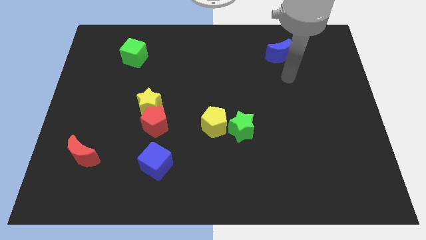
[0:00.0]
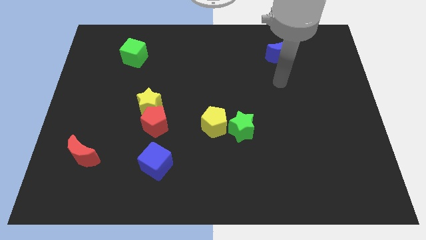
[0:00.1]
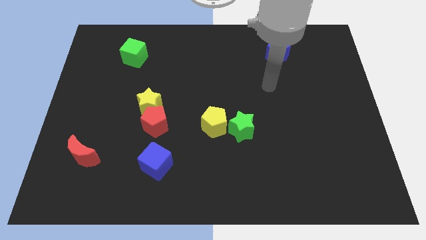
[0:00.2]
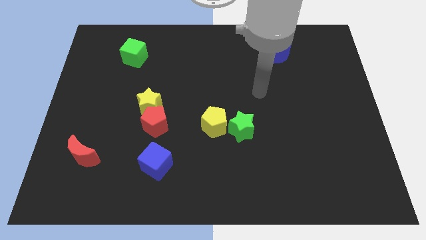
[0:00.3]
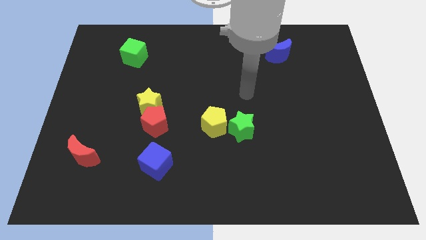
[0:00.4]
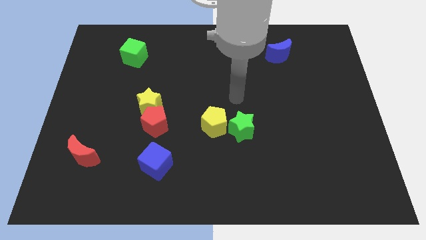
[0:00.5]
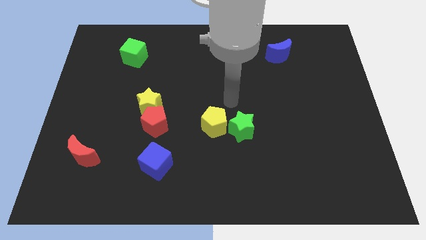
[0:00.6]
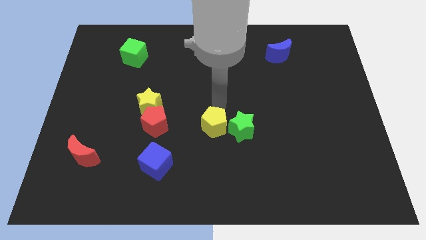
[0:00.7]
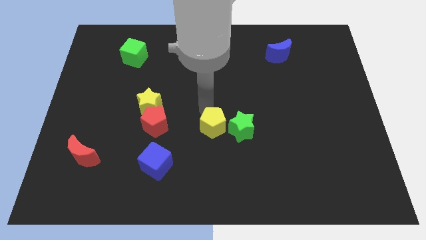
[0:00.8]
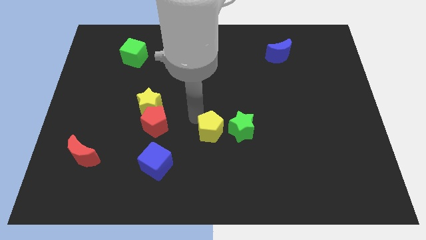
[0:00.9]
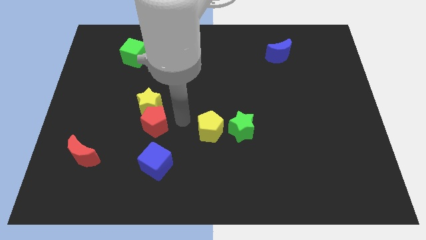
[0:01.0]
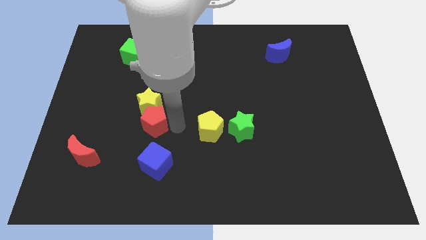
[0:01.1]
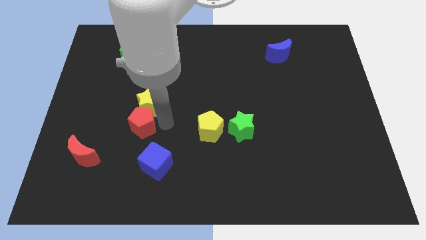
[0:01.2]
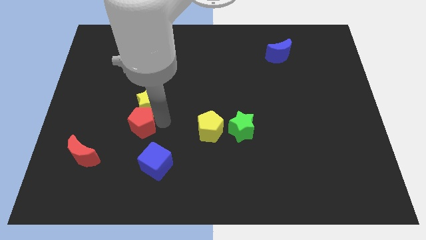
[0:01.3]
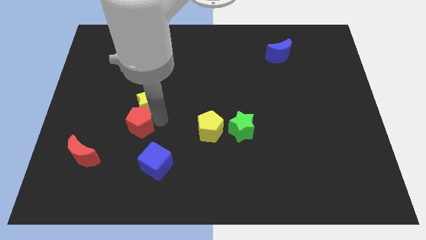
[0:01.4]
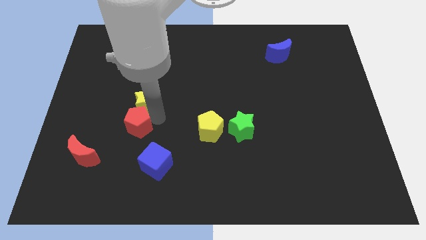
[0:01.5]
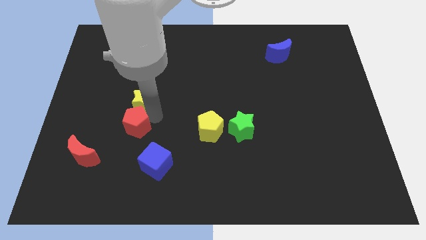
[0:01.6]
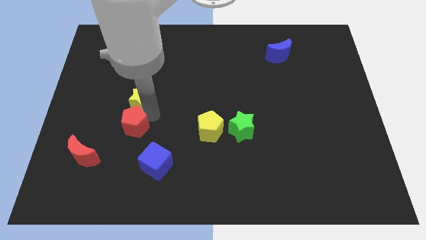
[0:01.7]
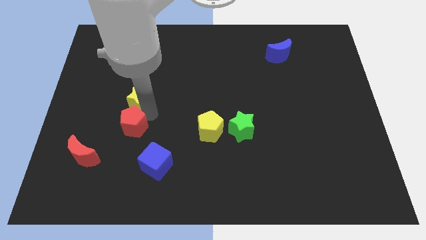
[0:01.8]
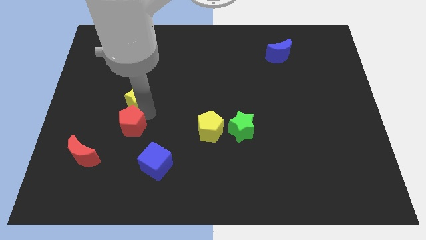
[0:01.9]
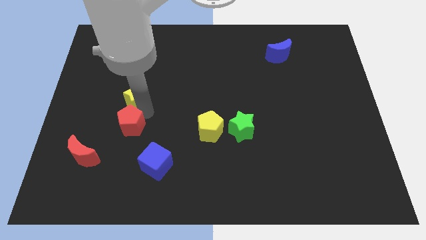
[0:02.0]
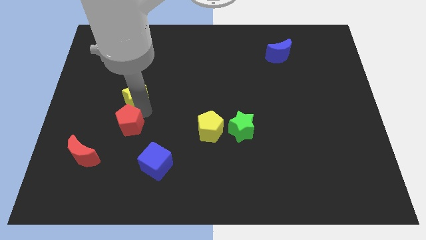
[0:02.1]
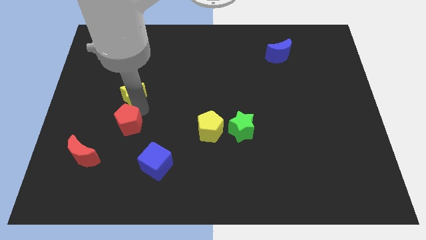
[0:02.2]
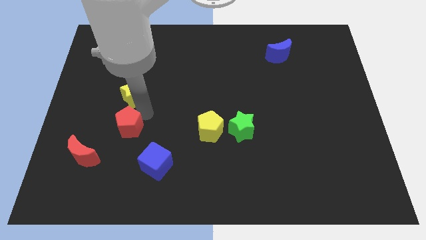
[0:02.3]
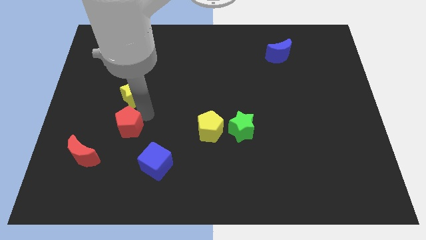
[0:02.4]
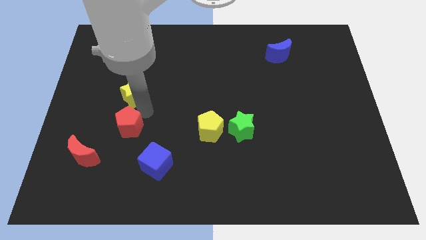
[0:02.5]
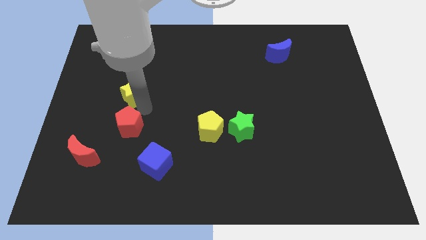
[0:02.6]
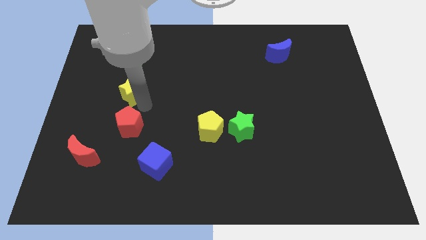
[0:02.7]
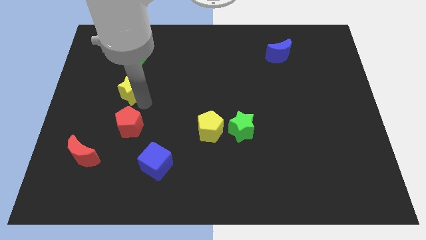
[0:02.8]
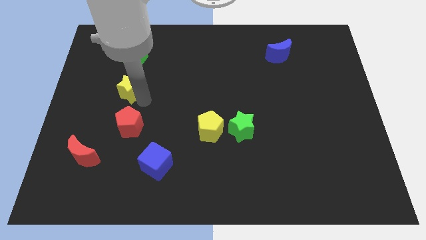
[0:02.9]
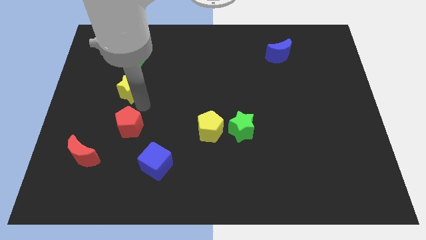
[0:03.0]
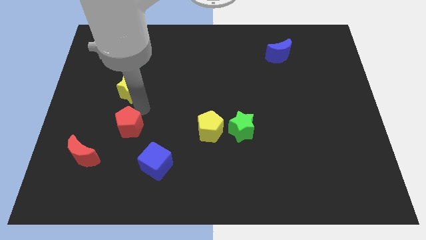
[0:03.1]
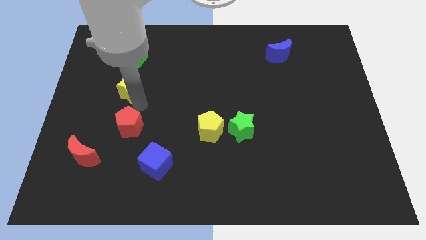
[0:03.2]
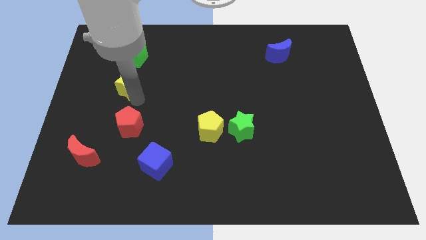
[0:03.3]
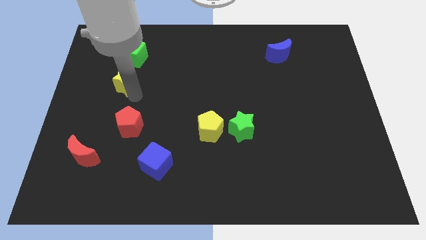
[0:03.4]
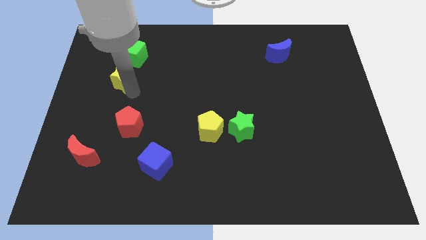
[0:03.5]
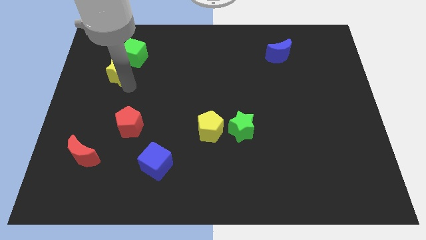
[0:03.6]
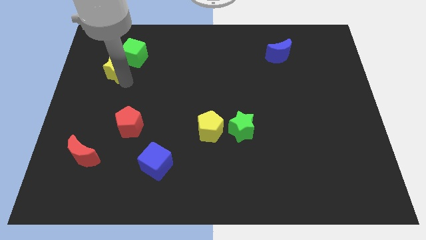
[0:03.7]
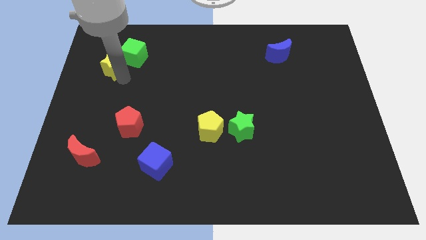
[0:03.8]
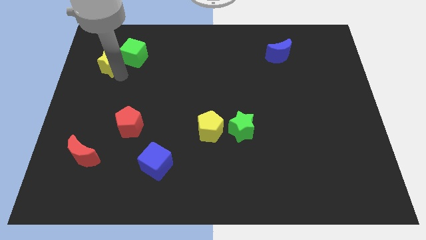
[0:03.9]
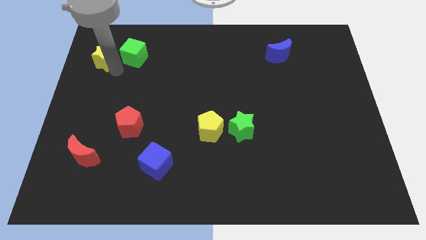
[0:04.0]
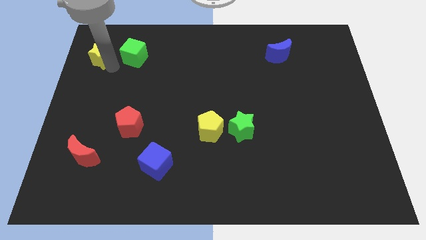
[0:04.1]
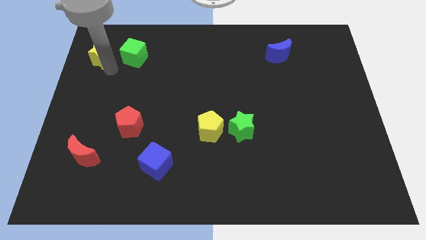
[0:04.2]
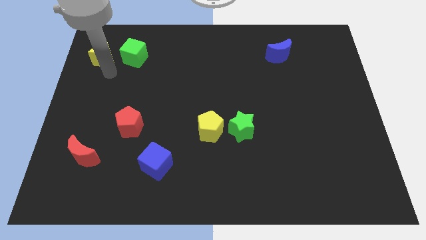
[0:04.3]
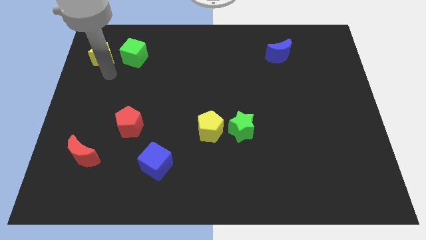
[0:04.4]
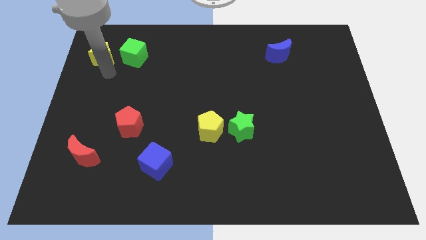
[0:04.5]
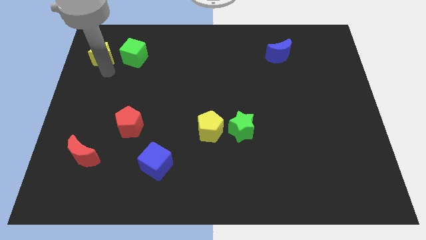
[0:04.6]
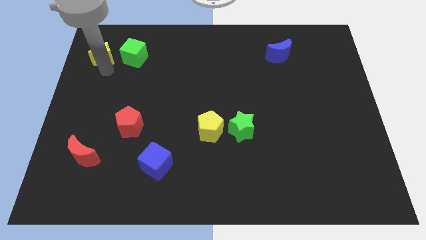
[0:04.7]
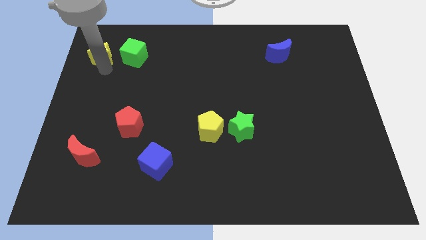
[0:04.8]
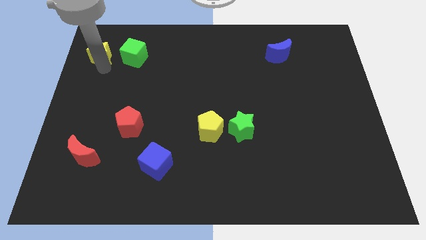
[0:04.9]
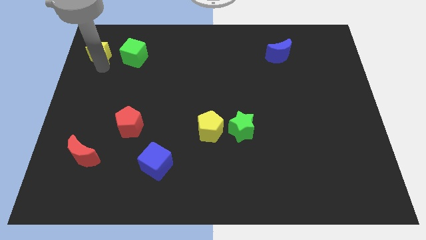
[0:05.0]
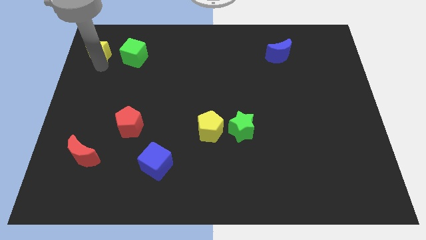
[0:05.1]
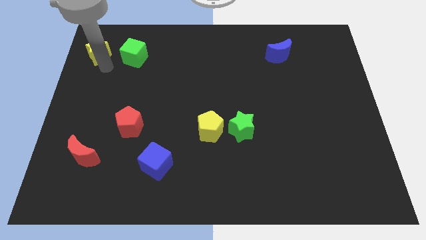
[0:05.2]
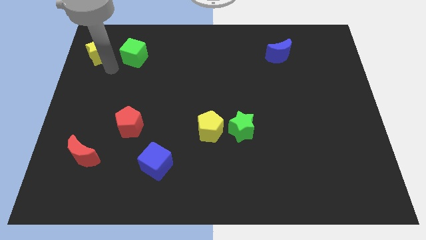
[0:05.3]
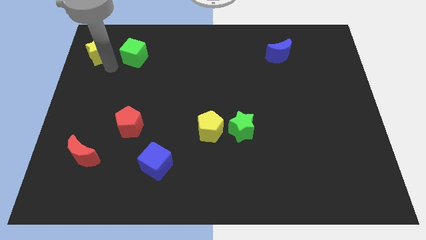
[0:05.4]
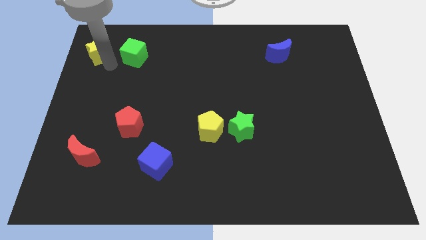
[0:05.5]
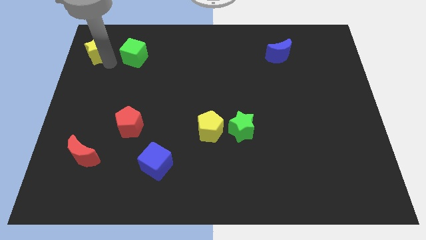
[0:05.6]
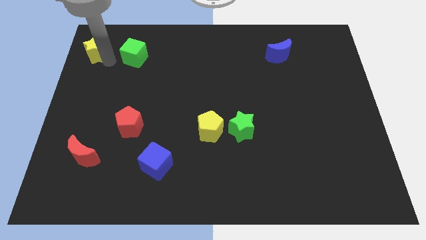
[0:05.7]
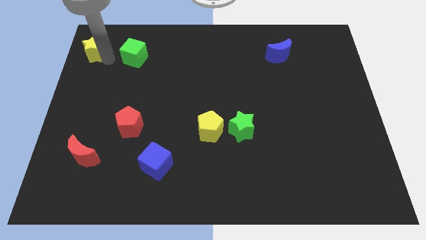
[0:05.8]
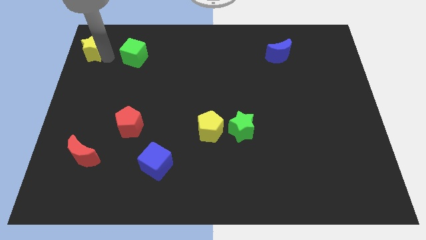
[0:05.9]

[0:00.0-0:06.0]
move the yellow star to the top left of the board

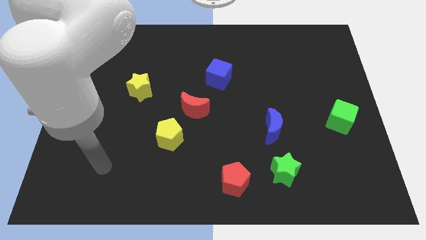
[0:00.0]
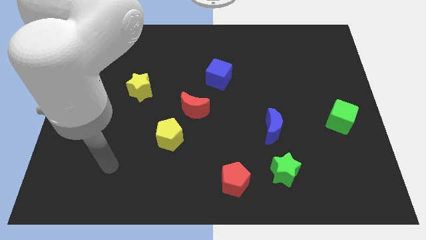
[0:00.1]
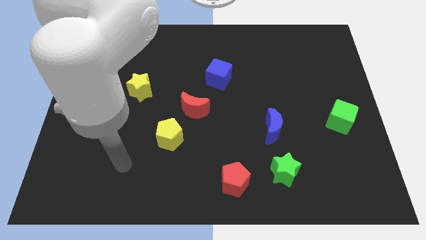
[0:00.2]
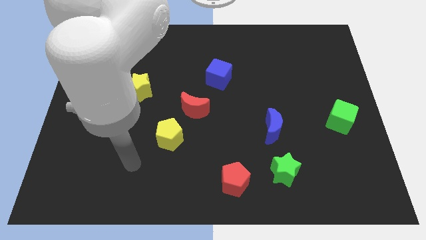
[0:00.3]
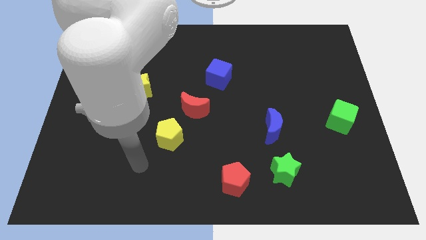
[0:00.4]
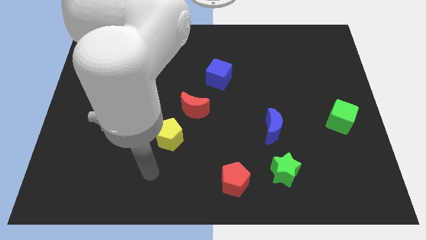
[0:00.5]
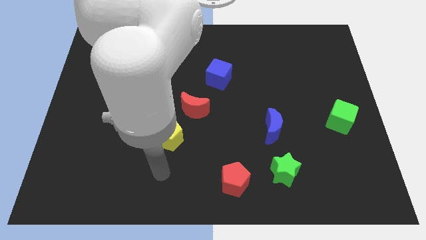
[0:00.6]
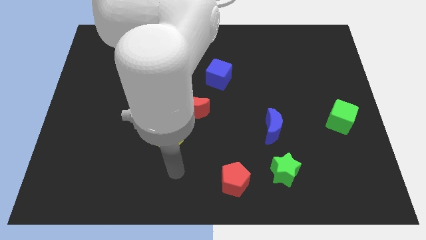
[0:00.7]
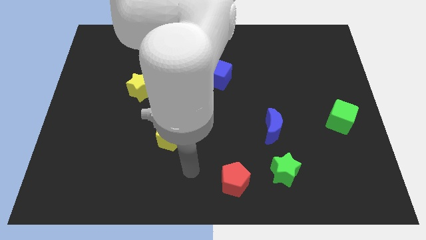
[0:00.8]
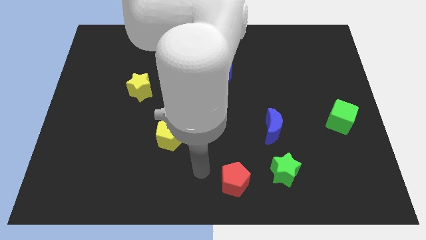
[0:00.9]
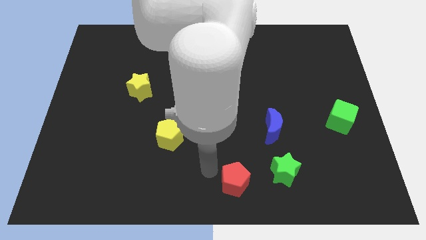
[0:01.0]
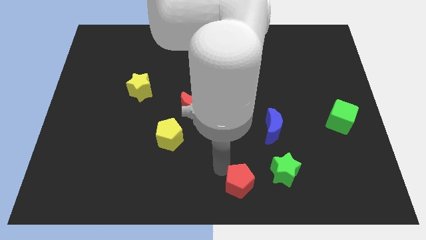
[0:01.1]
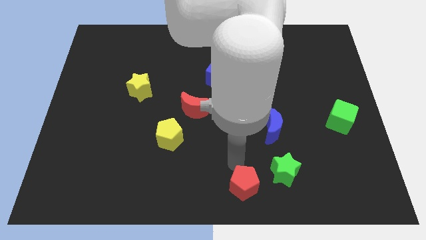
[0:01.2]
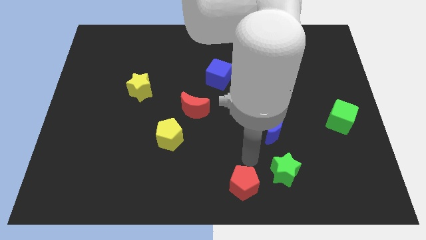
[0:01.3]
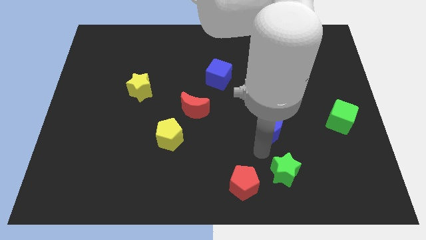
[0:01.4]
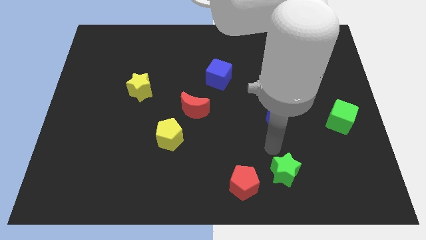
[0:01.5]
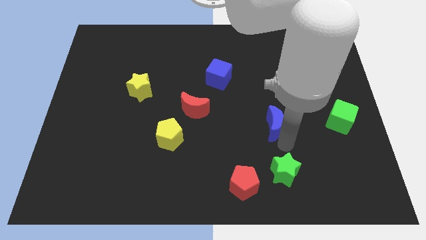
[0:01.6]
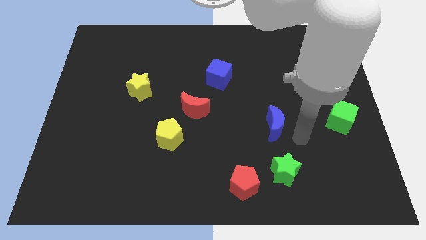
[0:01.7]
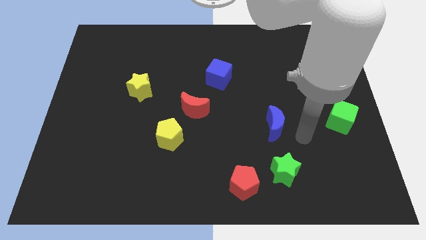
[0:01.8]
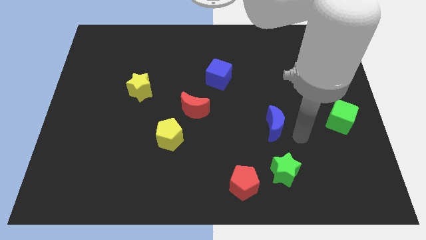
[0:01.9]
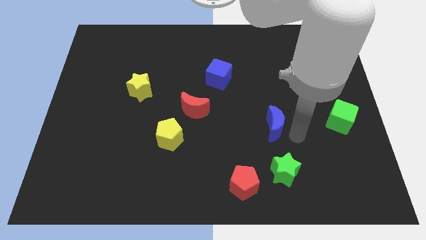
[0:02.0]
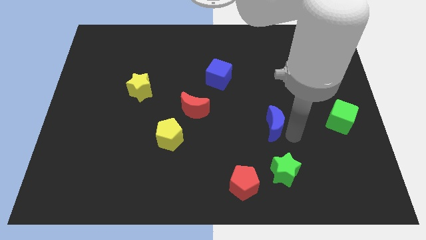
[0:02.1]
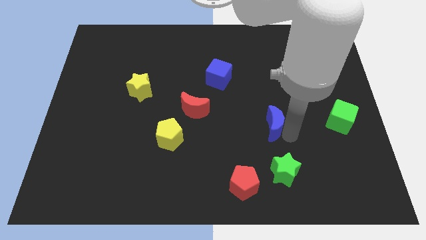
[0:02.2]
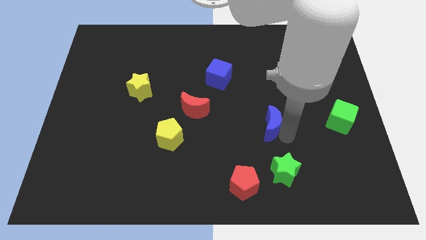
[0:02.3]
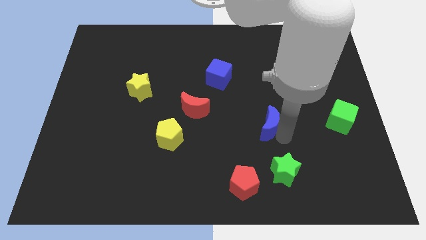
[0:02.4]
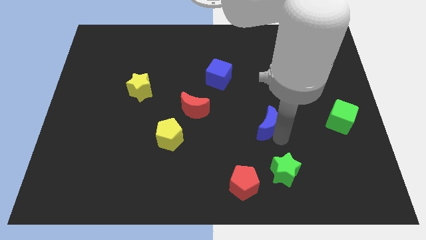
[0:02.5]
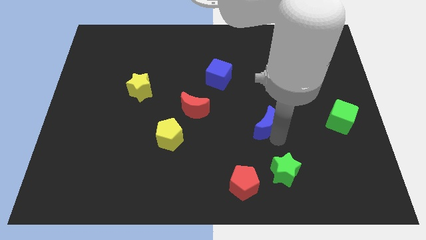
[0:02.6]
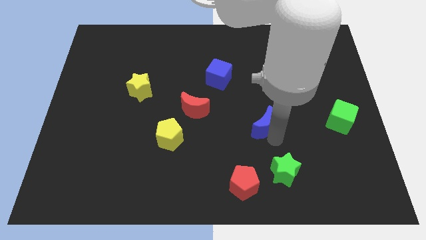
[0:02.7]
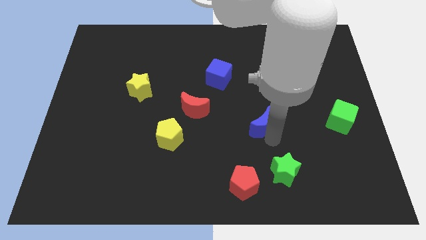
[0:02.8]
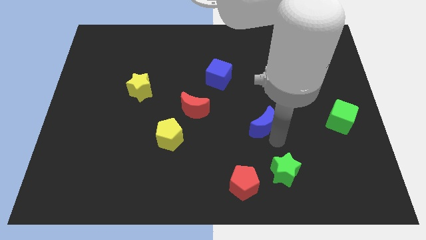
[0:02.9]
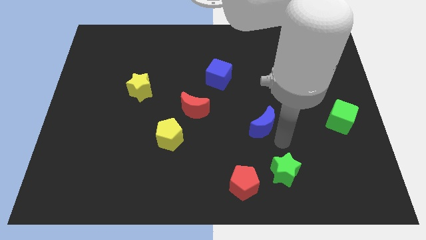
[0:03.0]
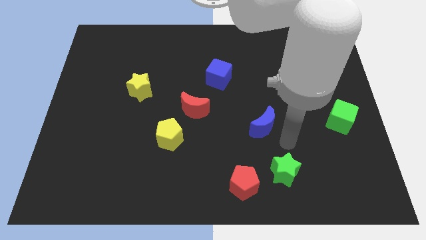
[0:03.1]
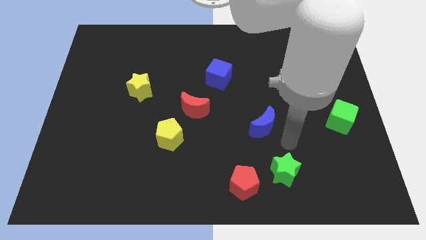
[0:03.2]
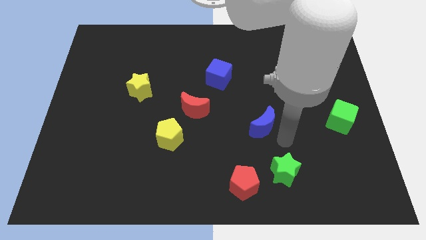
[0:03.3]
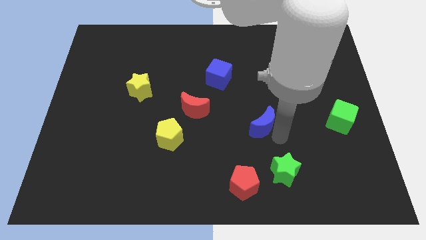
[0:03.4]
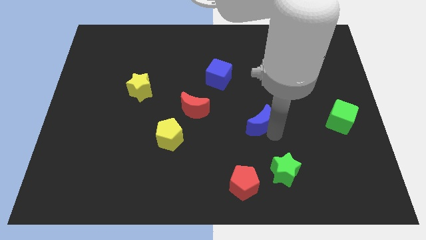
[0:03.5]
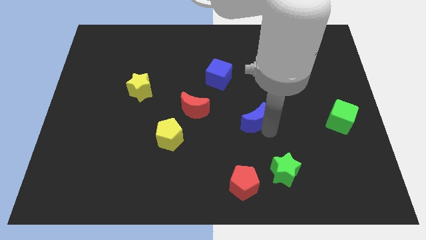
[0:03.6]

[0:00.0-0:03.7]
put the blue moon to the center
